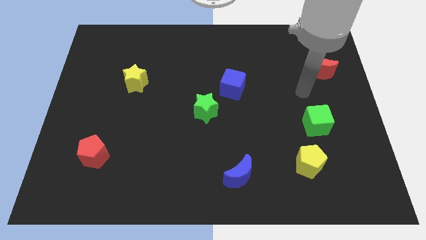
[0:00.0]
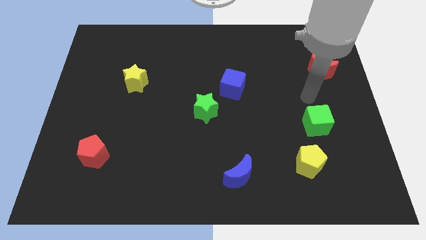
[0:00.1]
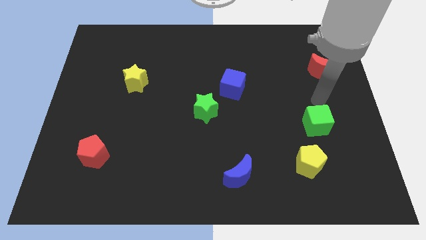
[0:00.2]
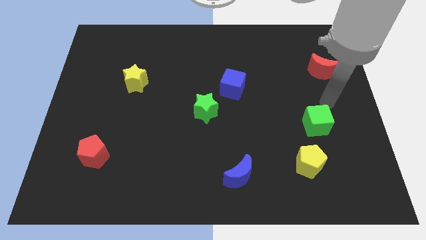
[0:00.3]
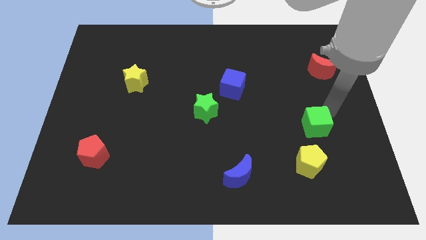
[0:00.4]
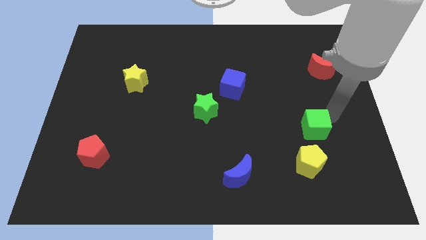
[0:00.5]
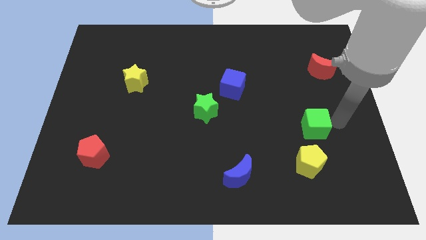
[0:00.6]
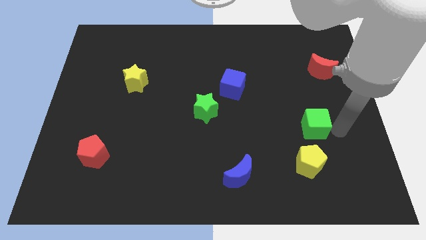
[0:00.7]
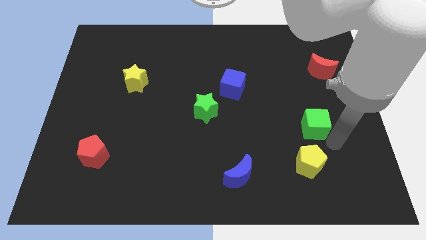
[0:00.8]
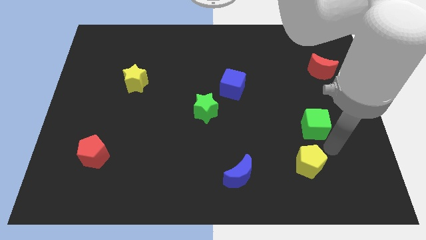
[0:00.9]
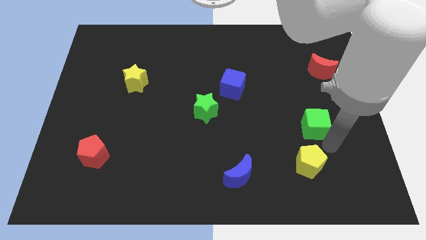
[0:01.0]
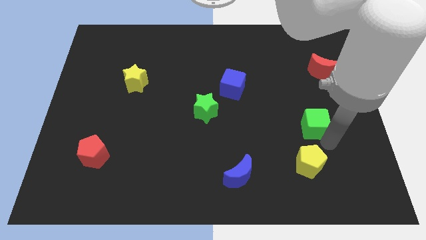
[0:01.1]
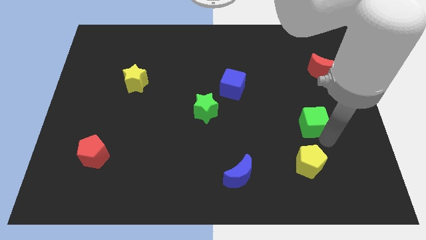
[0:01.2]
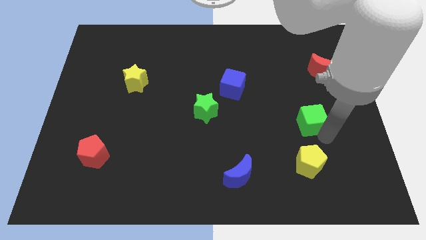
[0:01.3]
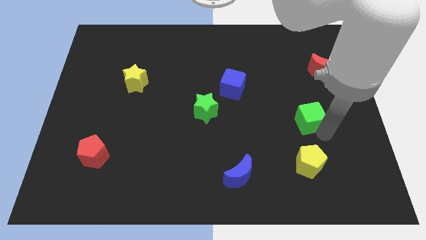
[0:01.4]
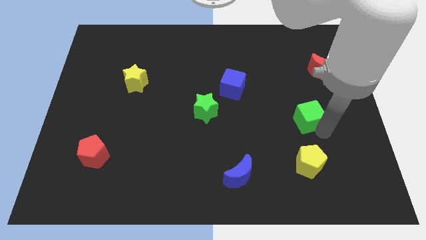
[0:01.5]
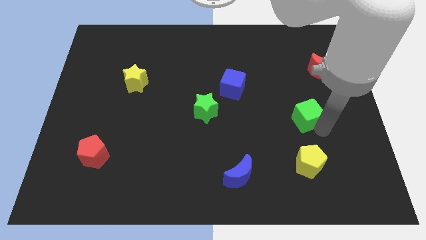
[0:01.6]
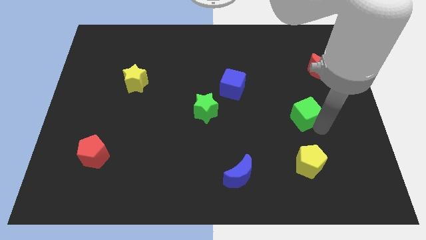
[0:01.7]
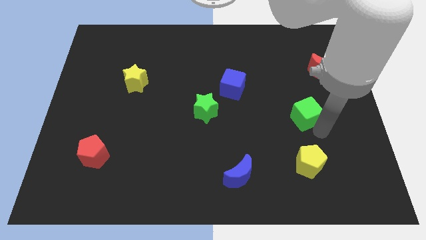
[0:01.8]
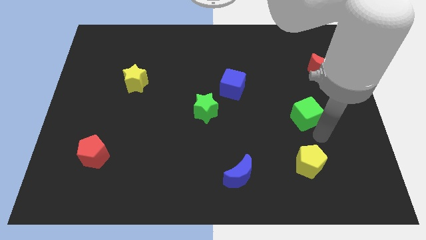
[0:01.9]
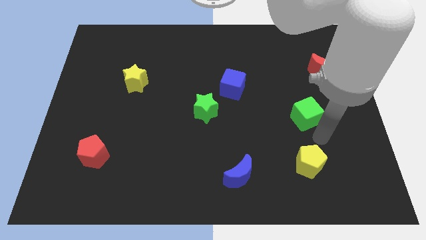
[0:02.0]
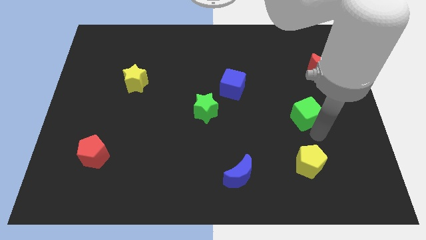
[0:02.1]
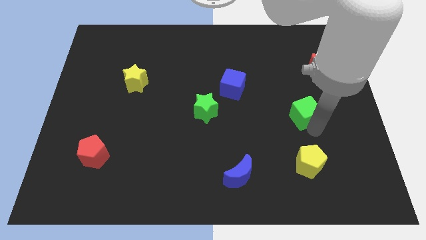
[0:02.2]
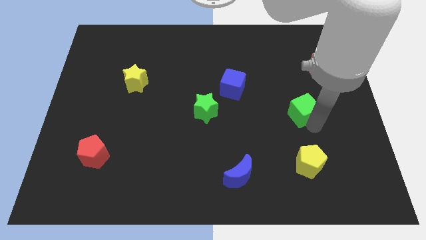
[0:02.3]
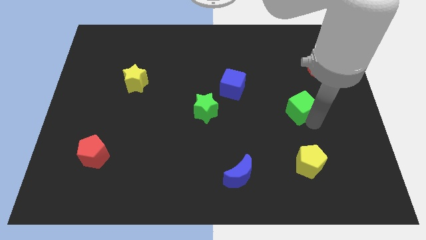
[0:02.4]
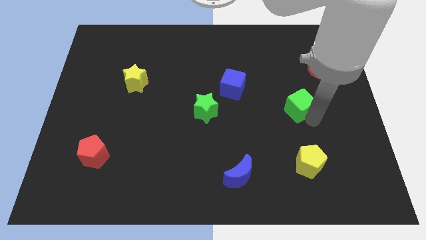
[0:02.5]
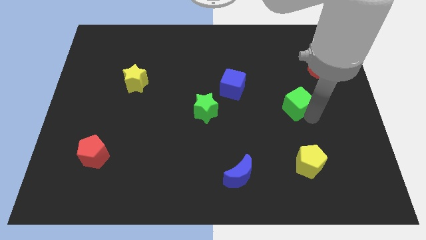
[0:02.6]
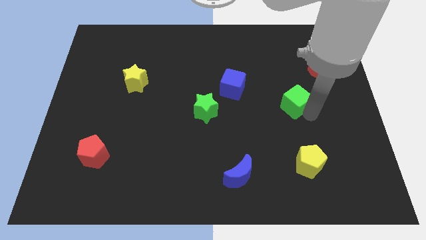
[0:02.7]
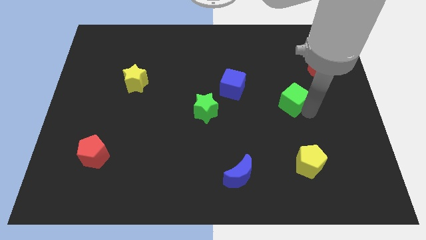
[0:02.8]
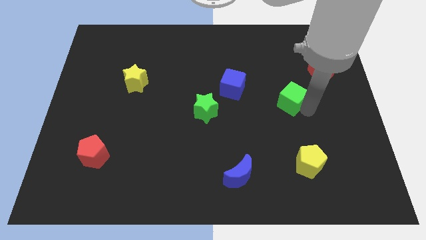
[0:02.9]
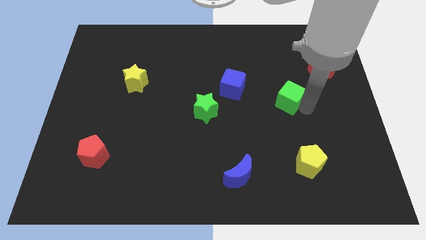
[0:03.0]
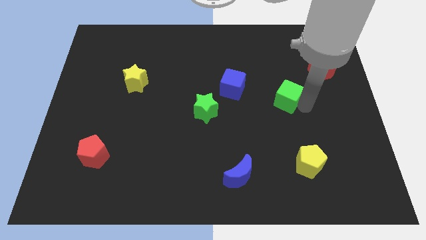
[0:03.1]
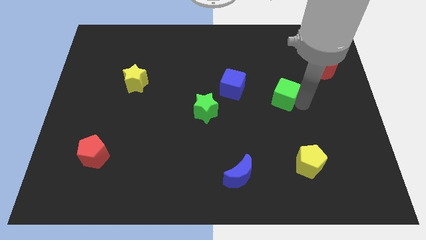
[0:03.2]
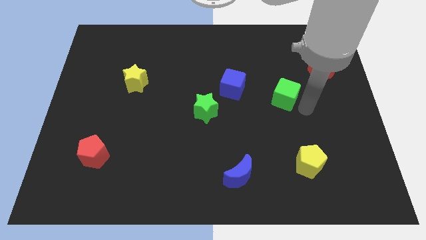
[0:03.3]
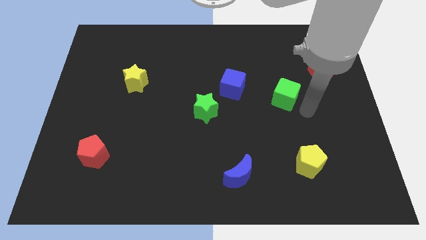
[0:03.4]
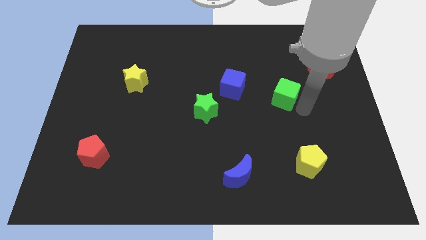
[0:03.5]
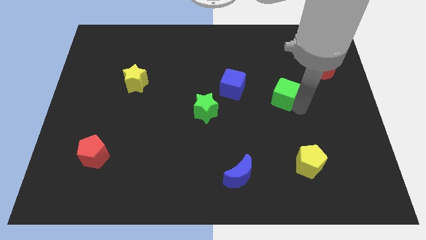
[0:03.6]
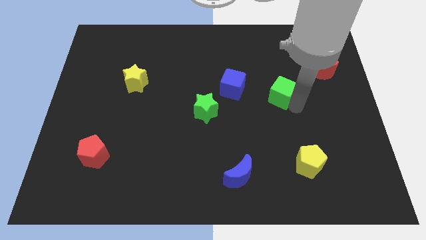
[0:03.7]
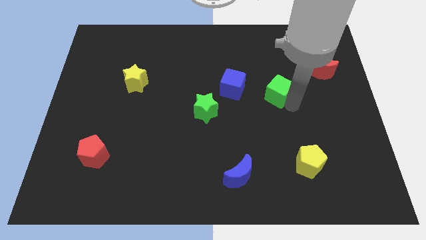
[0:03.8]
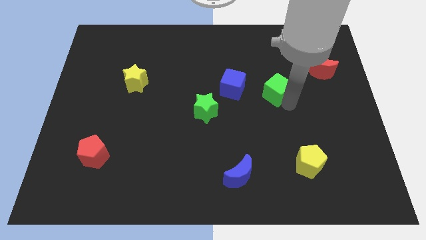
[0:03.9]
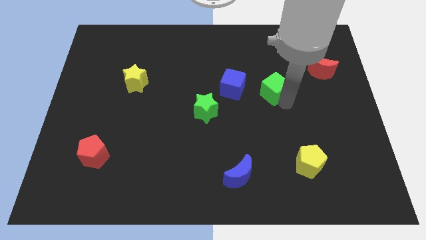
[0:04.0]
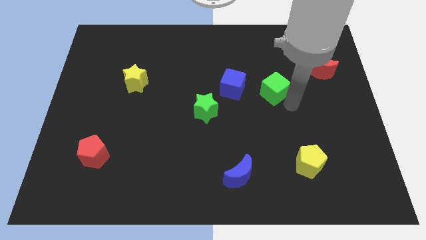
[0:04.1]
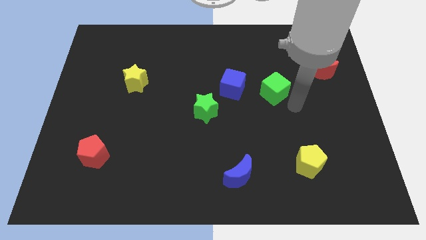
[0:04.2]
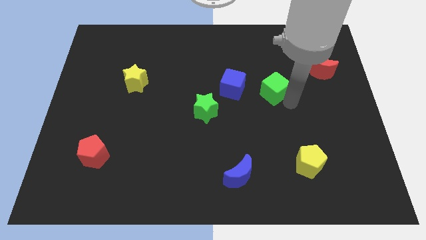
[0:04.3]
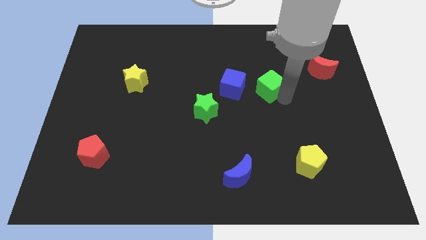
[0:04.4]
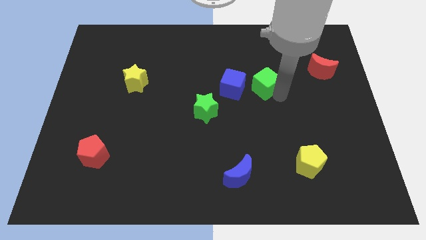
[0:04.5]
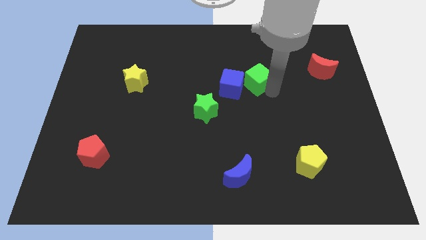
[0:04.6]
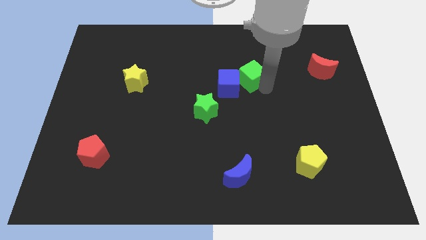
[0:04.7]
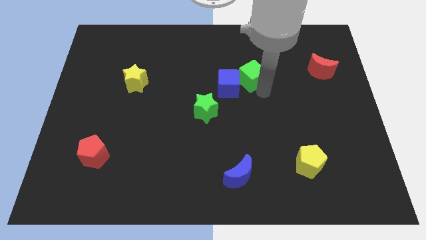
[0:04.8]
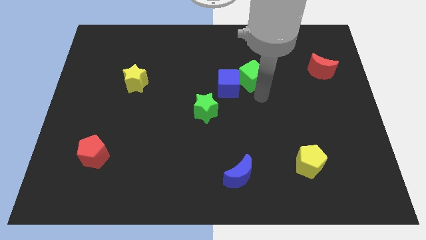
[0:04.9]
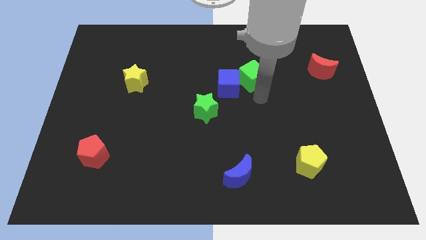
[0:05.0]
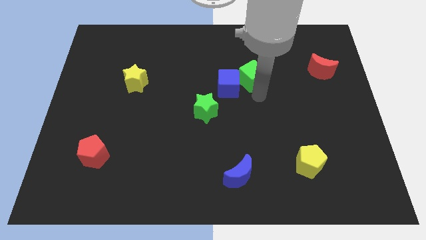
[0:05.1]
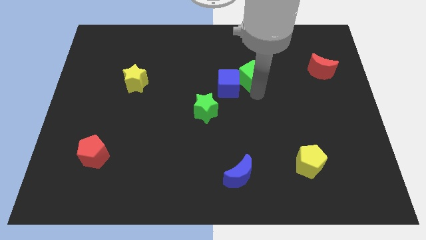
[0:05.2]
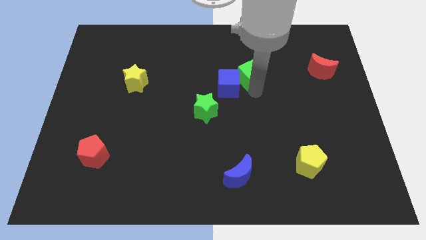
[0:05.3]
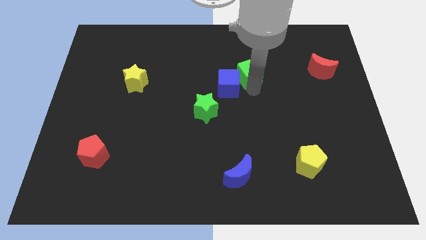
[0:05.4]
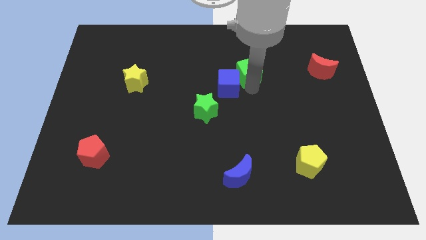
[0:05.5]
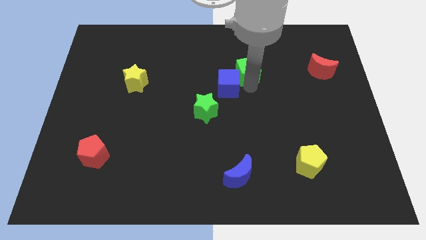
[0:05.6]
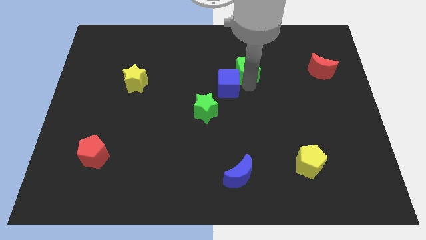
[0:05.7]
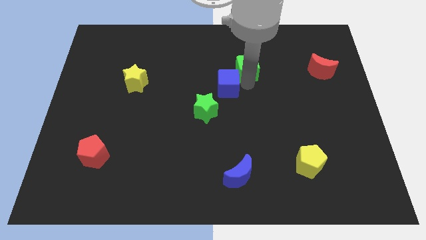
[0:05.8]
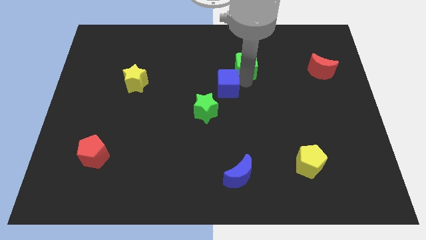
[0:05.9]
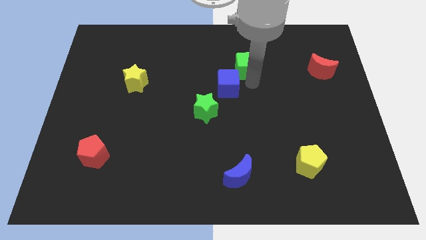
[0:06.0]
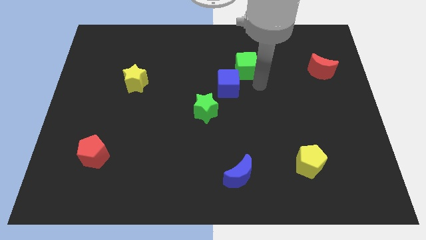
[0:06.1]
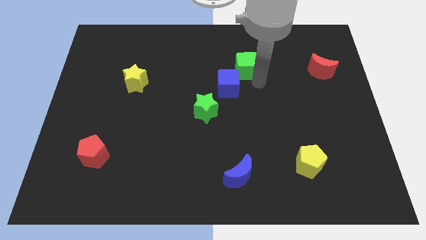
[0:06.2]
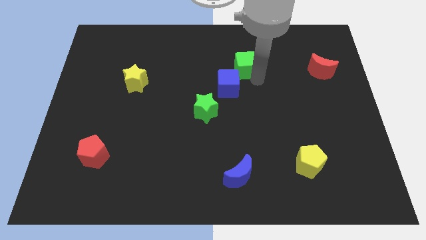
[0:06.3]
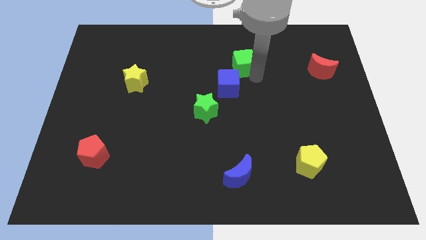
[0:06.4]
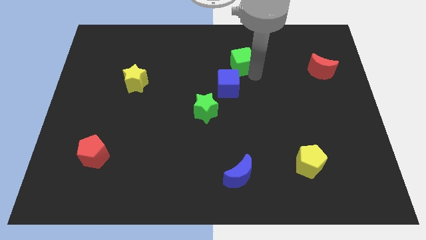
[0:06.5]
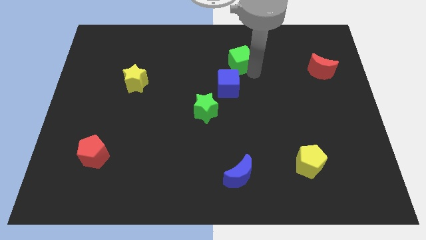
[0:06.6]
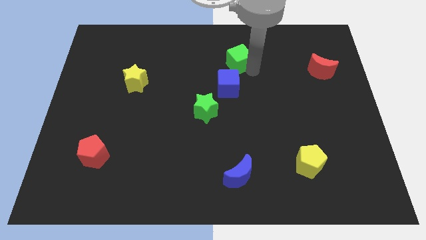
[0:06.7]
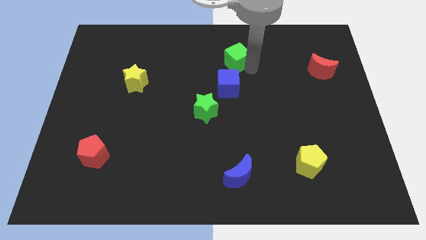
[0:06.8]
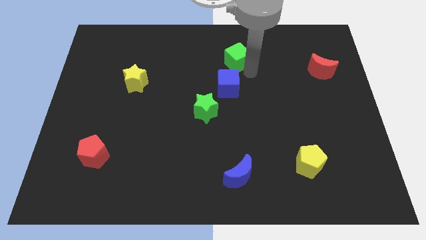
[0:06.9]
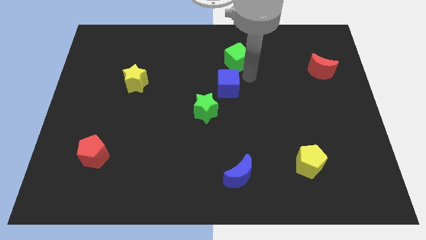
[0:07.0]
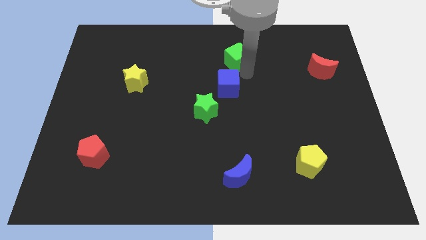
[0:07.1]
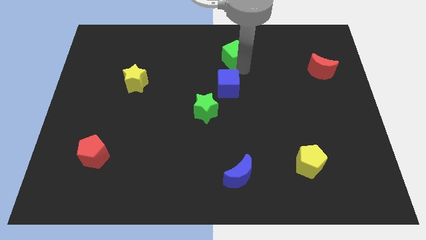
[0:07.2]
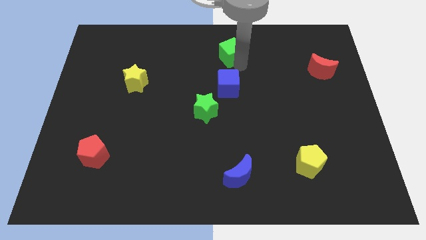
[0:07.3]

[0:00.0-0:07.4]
put the green cube to the top
